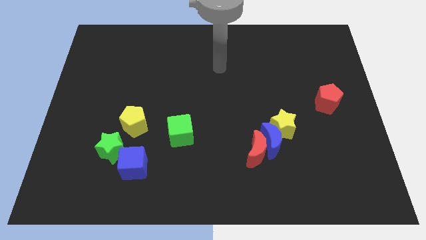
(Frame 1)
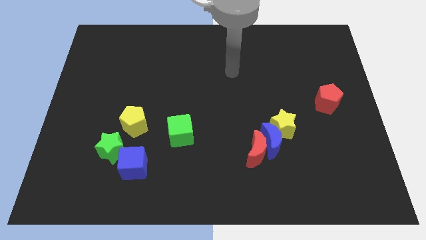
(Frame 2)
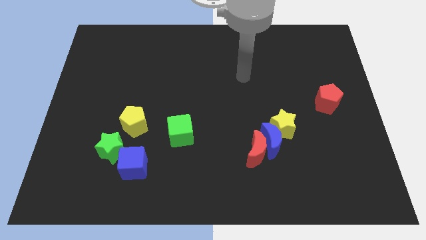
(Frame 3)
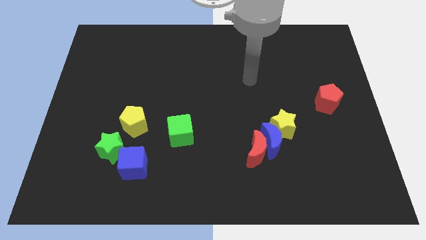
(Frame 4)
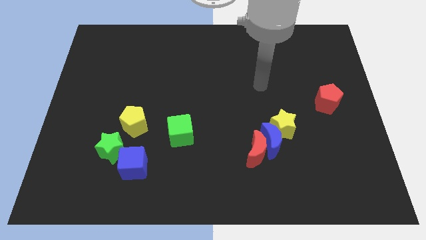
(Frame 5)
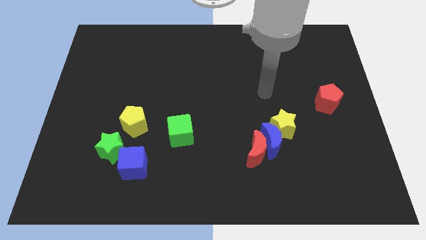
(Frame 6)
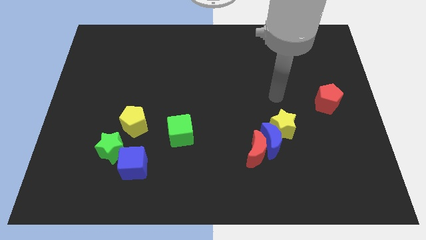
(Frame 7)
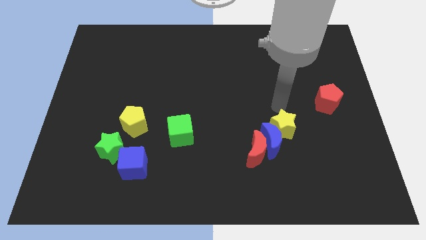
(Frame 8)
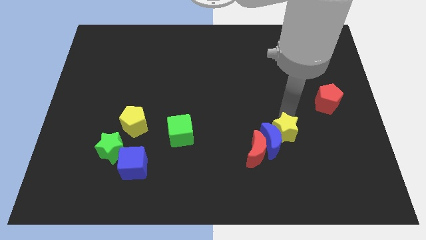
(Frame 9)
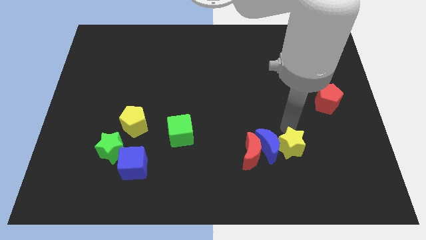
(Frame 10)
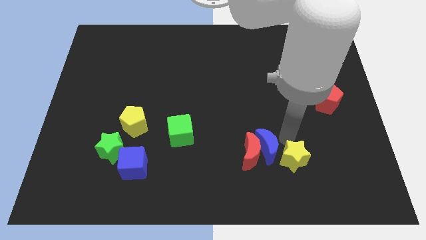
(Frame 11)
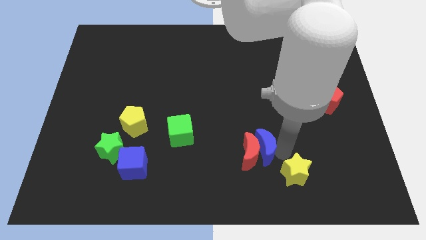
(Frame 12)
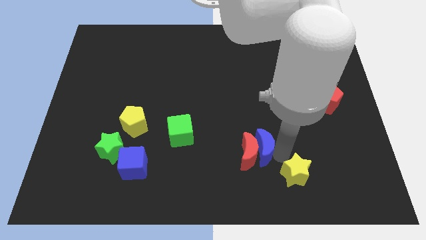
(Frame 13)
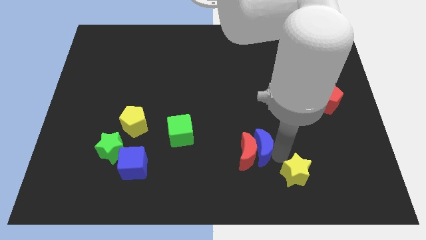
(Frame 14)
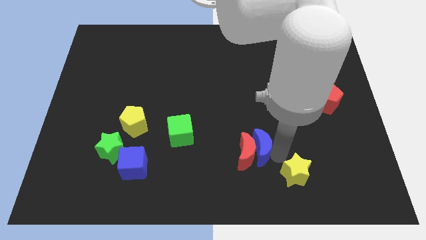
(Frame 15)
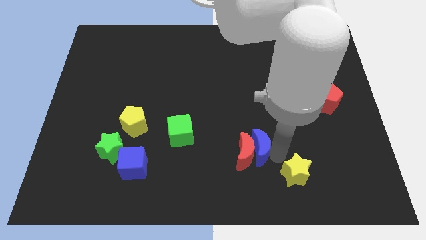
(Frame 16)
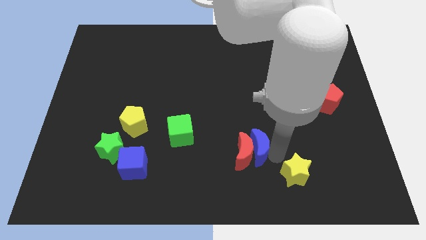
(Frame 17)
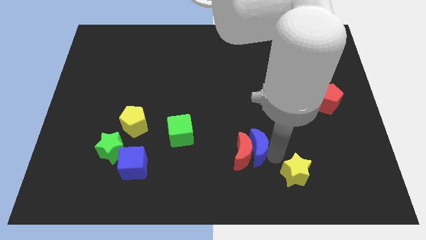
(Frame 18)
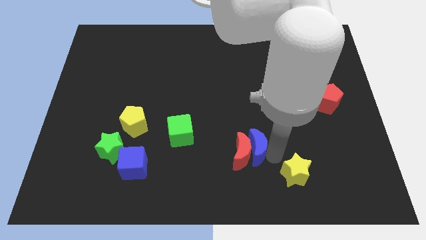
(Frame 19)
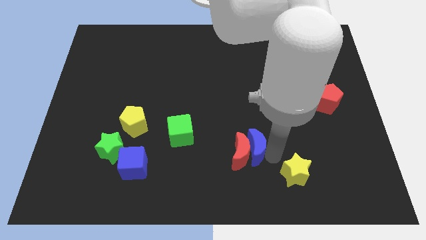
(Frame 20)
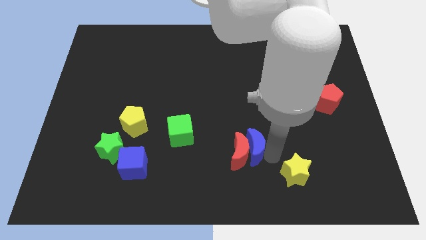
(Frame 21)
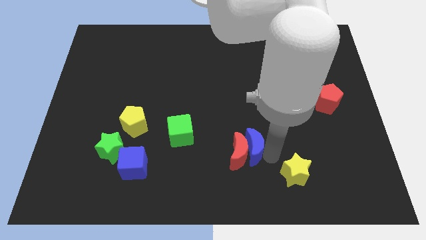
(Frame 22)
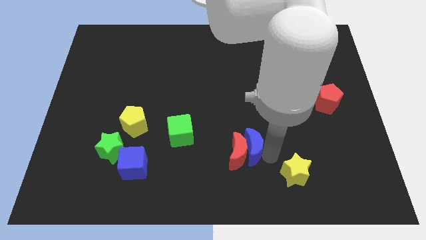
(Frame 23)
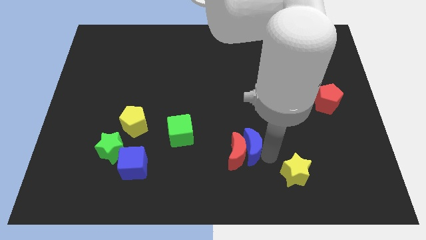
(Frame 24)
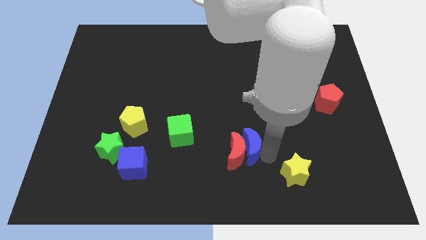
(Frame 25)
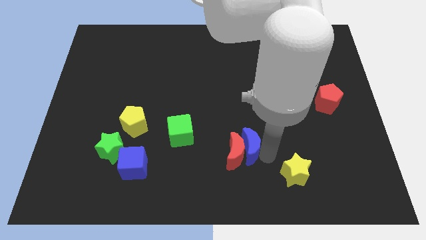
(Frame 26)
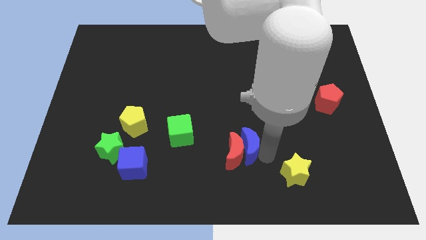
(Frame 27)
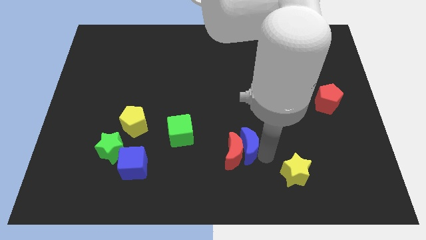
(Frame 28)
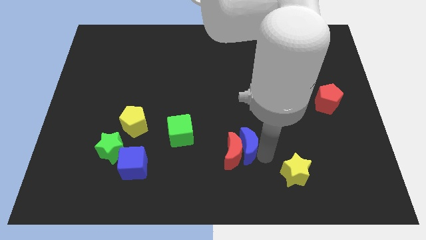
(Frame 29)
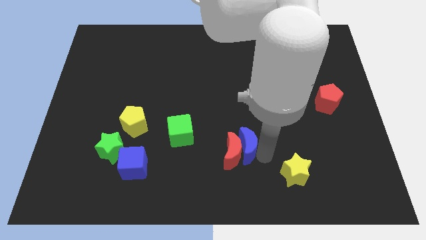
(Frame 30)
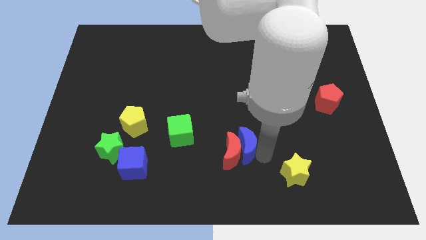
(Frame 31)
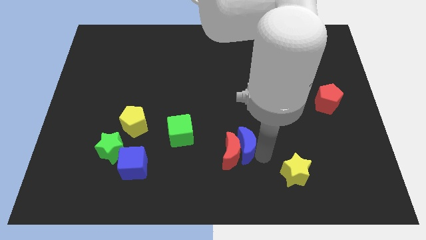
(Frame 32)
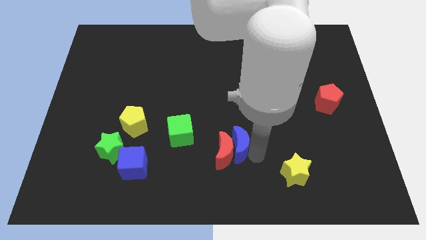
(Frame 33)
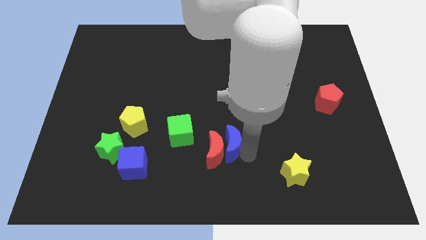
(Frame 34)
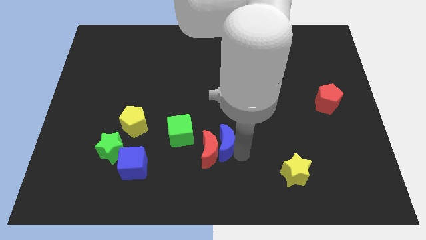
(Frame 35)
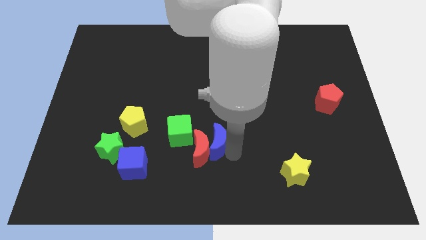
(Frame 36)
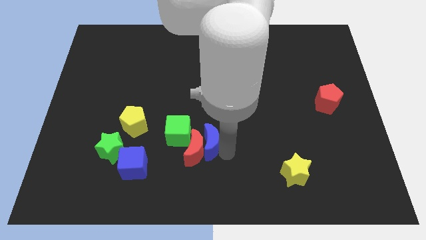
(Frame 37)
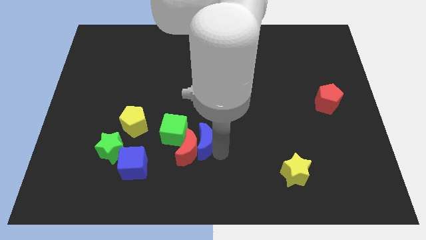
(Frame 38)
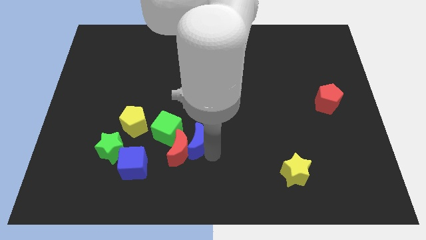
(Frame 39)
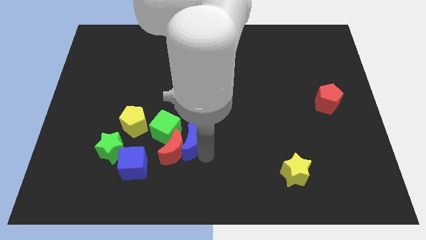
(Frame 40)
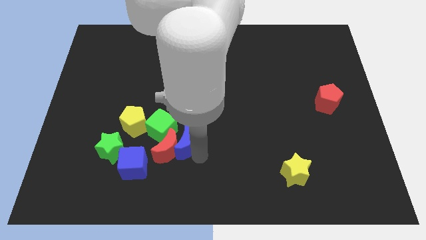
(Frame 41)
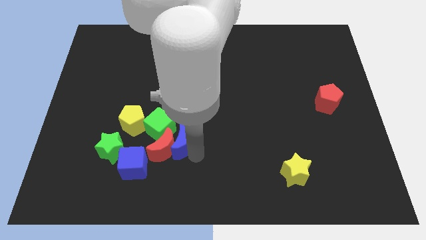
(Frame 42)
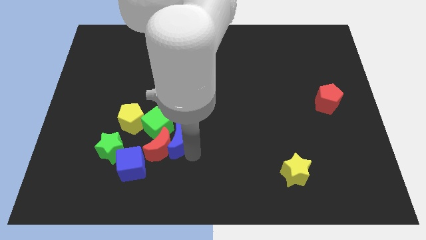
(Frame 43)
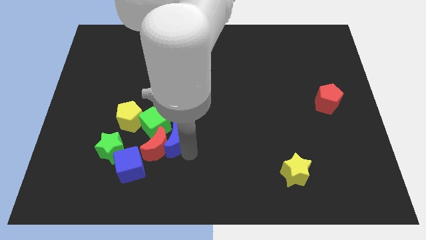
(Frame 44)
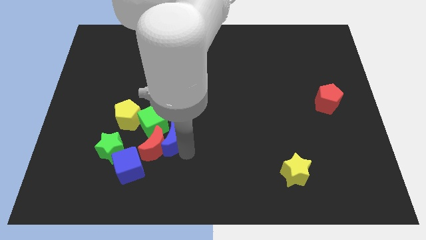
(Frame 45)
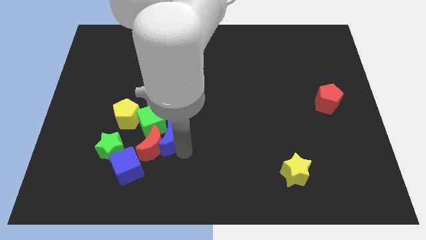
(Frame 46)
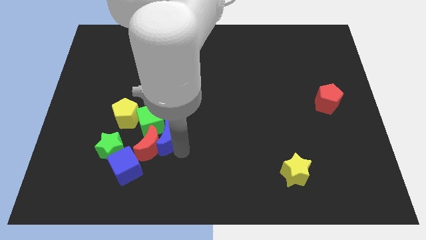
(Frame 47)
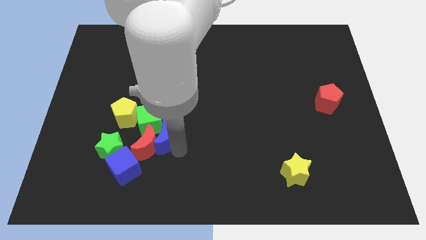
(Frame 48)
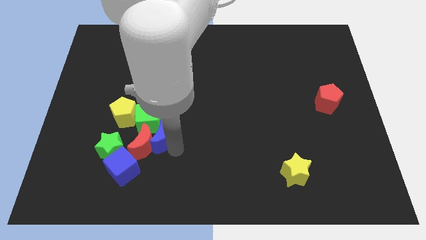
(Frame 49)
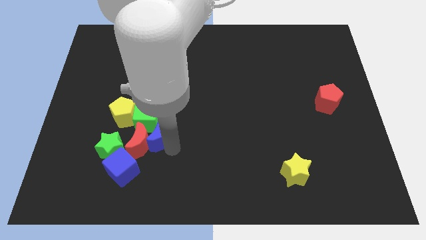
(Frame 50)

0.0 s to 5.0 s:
move the red moon next to the green star

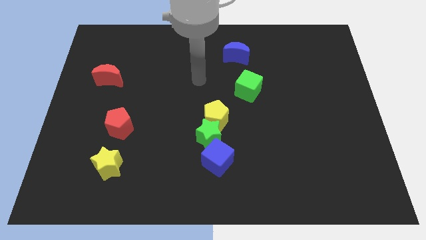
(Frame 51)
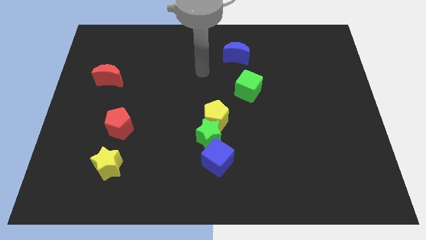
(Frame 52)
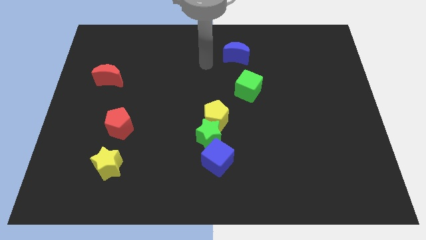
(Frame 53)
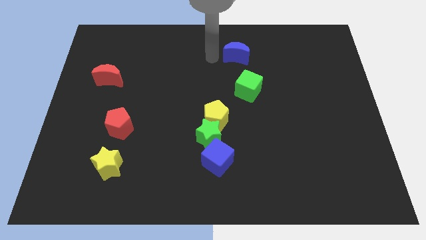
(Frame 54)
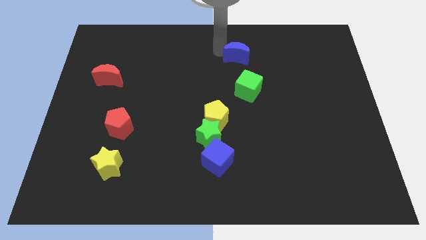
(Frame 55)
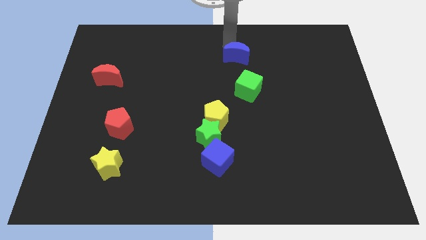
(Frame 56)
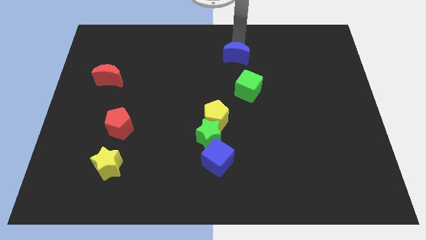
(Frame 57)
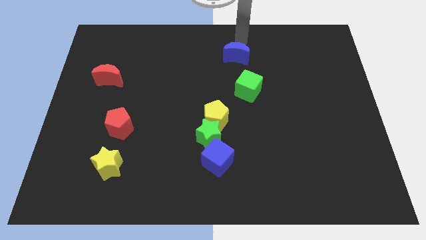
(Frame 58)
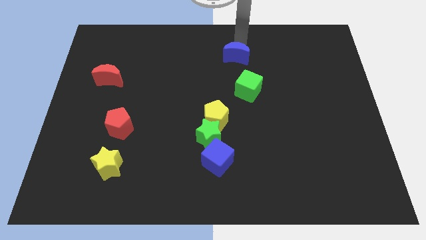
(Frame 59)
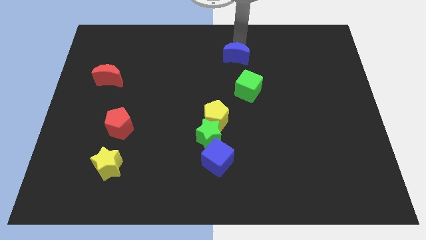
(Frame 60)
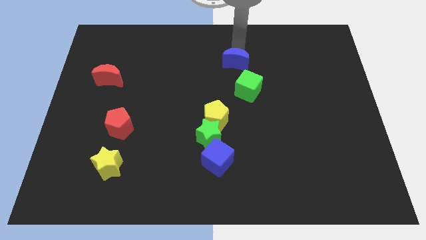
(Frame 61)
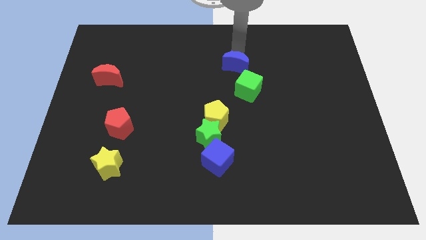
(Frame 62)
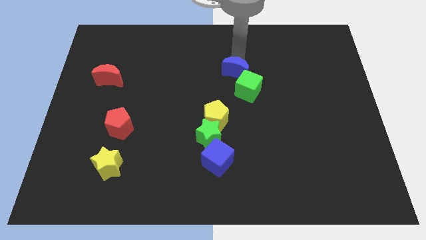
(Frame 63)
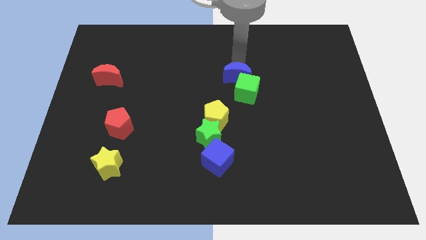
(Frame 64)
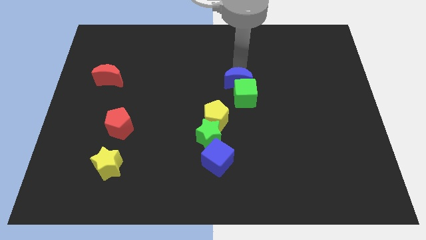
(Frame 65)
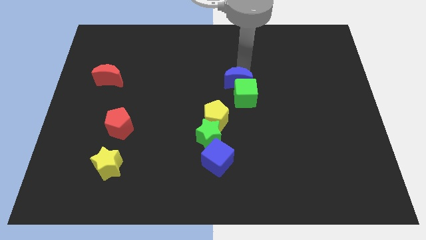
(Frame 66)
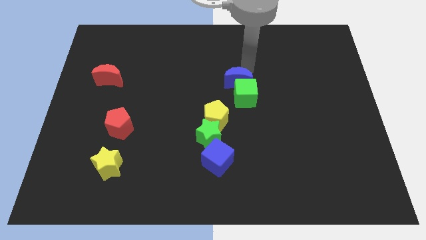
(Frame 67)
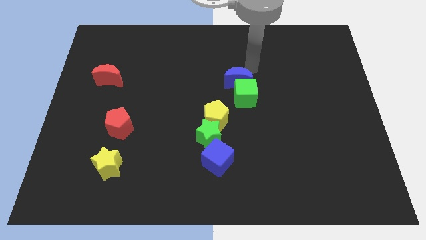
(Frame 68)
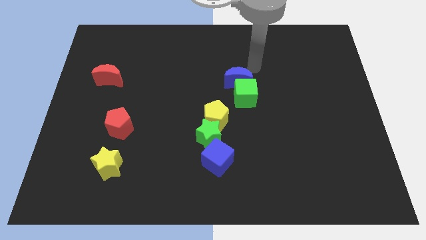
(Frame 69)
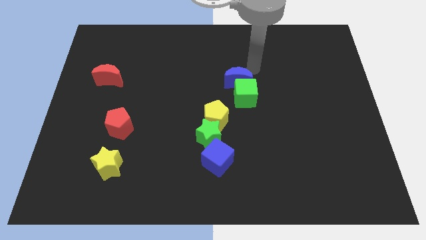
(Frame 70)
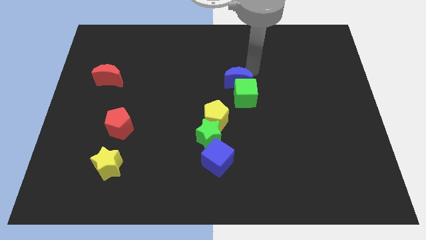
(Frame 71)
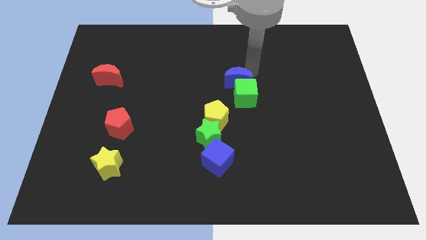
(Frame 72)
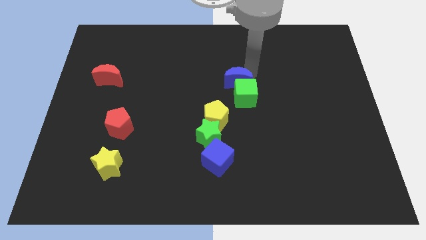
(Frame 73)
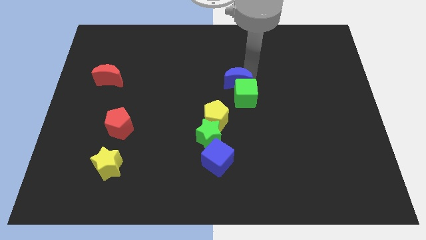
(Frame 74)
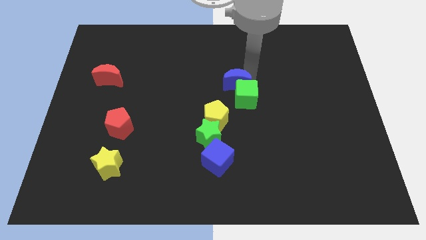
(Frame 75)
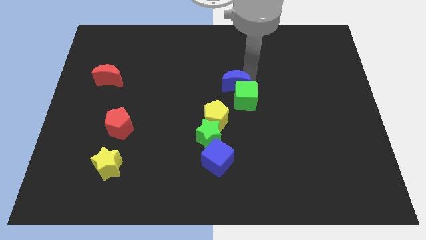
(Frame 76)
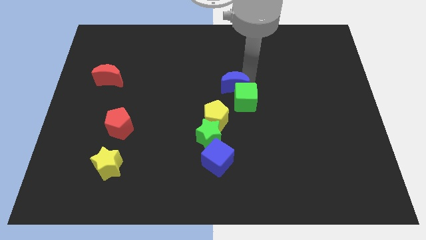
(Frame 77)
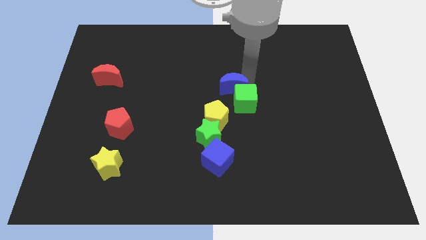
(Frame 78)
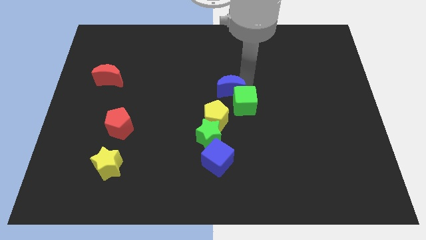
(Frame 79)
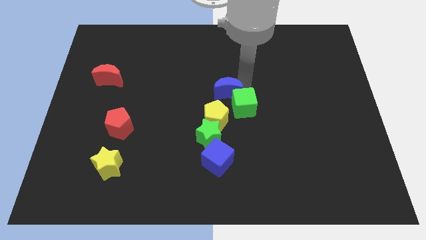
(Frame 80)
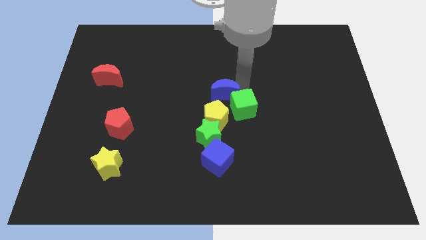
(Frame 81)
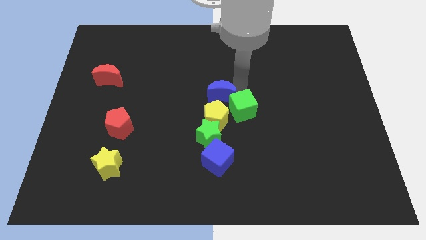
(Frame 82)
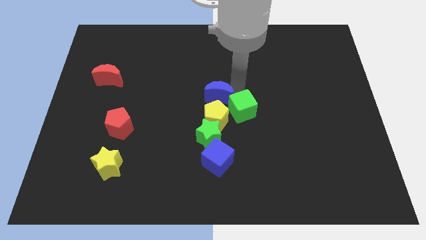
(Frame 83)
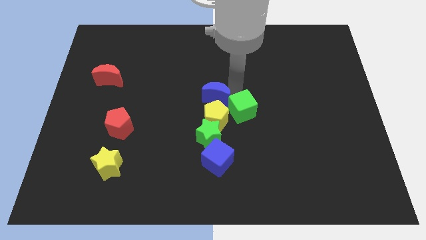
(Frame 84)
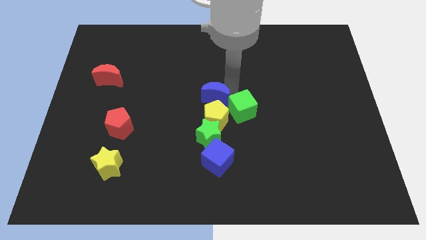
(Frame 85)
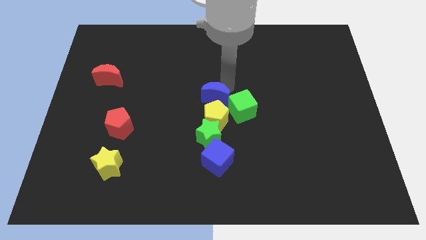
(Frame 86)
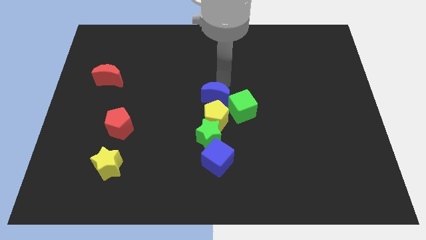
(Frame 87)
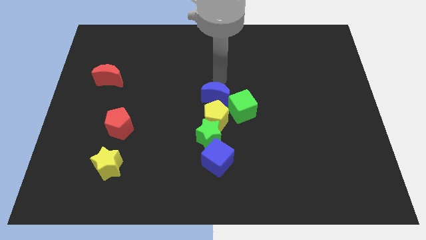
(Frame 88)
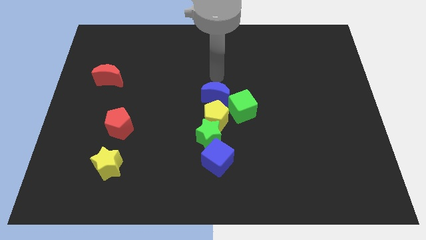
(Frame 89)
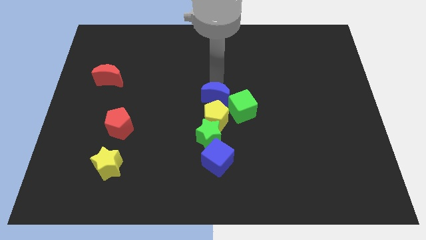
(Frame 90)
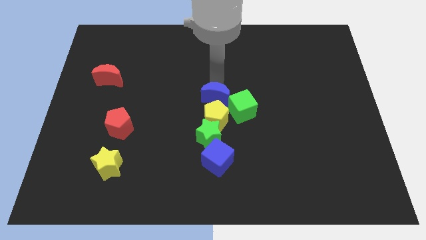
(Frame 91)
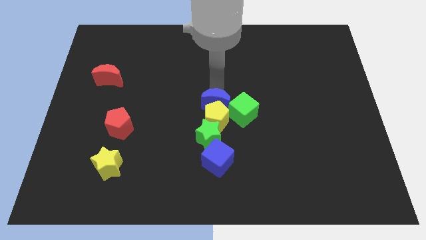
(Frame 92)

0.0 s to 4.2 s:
push the blue moon close to the yellow pentagon
